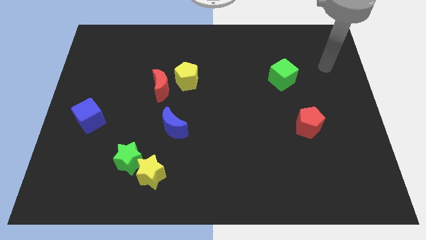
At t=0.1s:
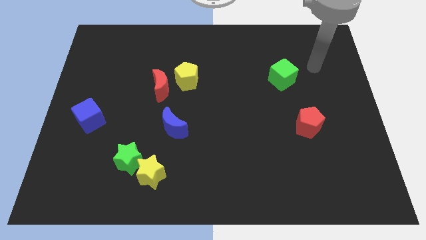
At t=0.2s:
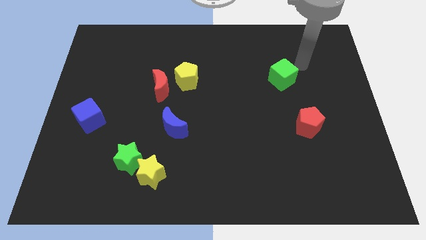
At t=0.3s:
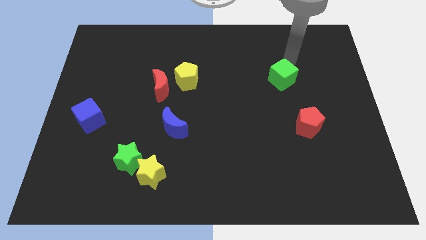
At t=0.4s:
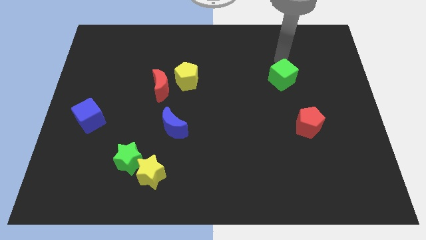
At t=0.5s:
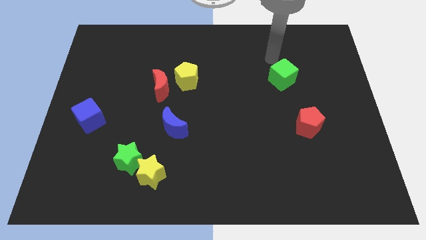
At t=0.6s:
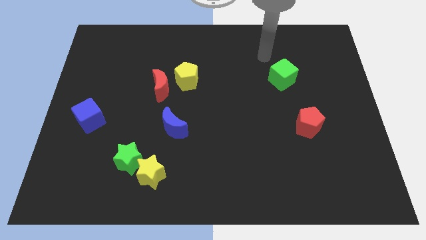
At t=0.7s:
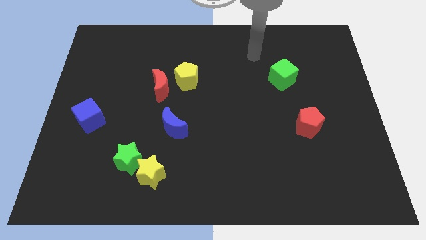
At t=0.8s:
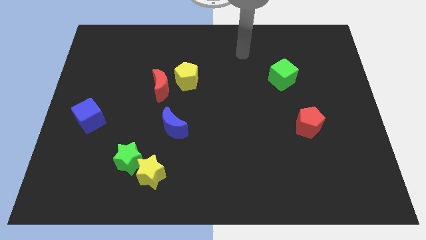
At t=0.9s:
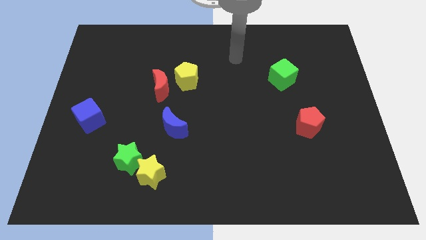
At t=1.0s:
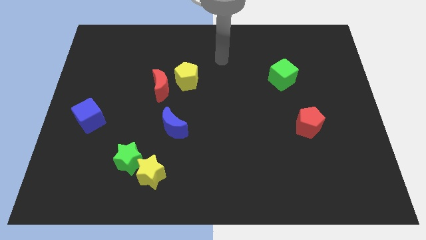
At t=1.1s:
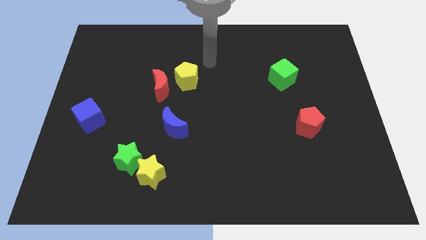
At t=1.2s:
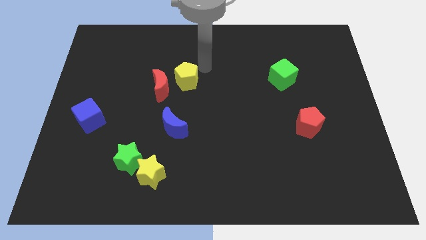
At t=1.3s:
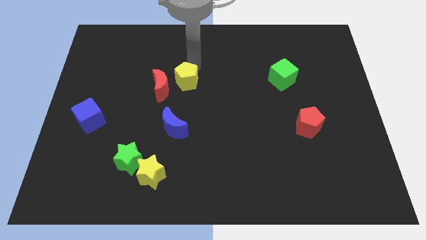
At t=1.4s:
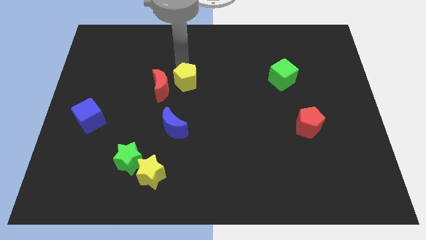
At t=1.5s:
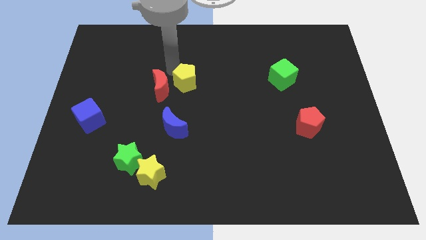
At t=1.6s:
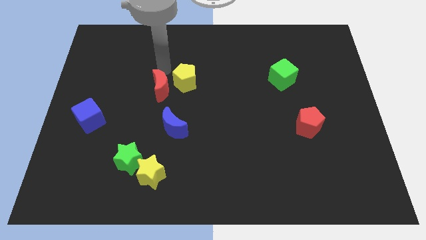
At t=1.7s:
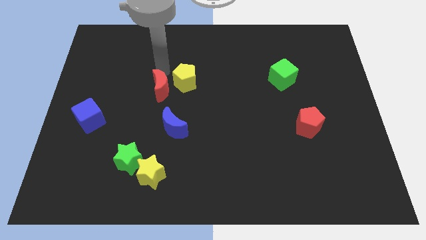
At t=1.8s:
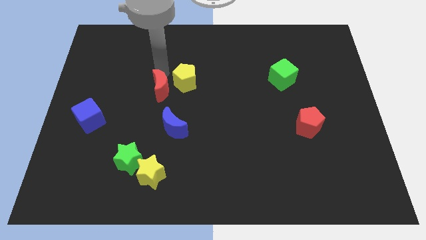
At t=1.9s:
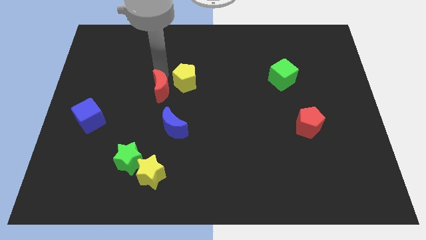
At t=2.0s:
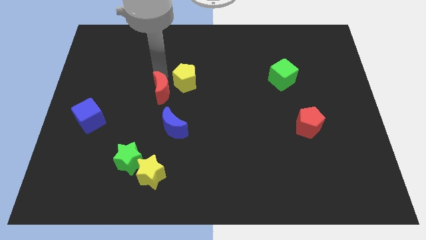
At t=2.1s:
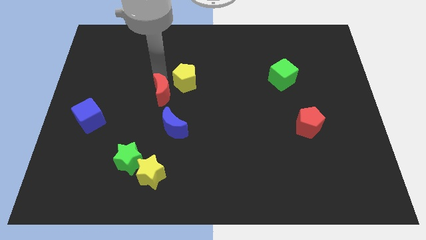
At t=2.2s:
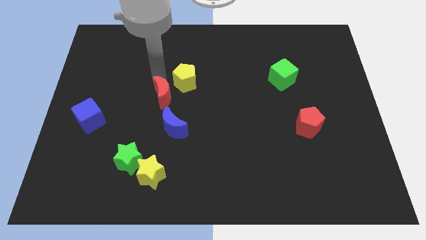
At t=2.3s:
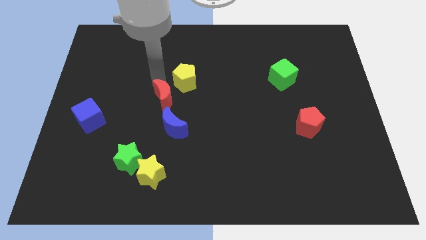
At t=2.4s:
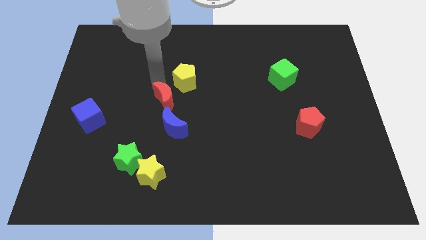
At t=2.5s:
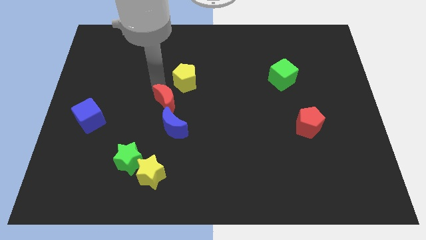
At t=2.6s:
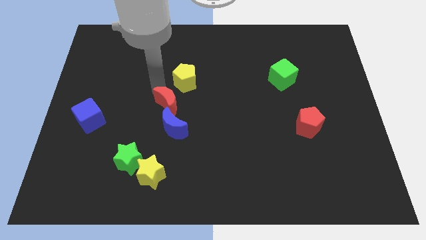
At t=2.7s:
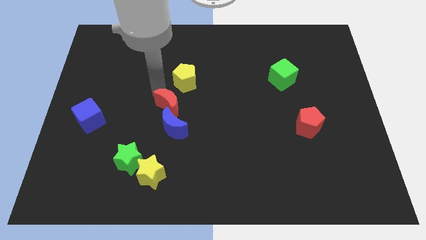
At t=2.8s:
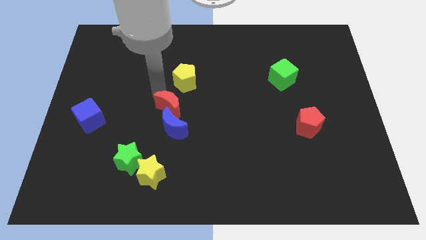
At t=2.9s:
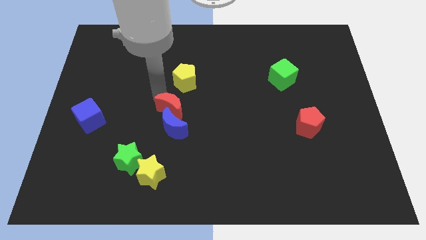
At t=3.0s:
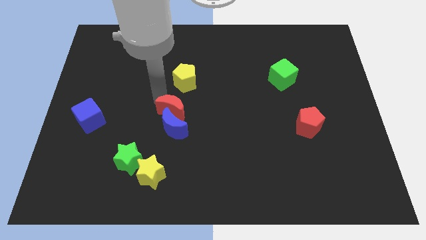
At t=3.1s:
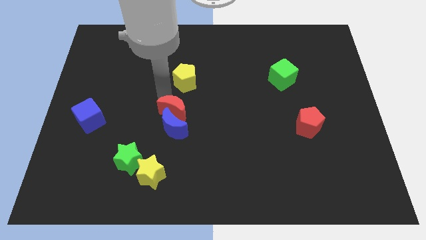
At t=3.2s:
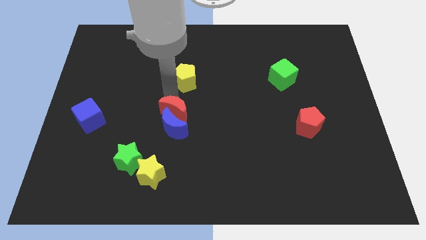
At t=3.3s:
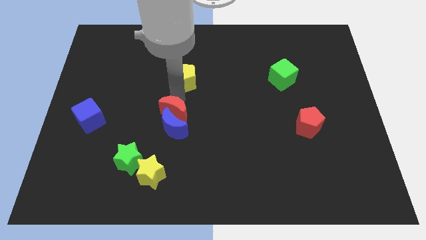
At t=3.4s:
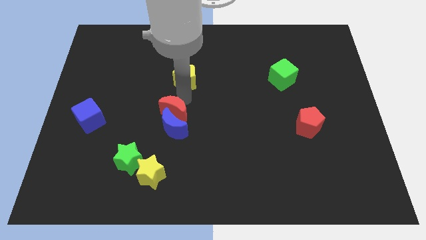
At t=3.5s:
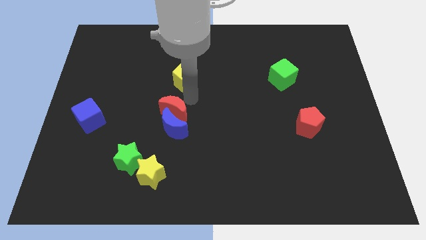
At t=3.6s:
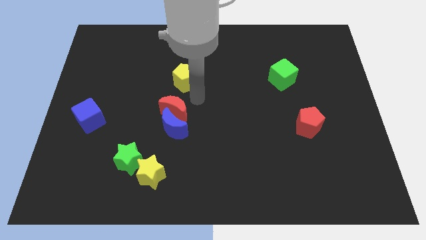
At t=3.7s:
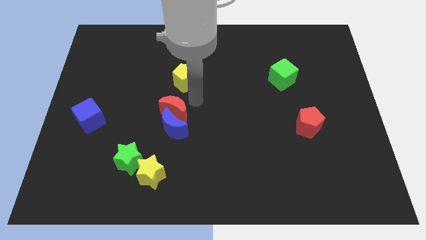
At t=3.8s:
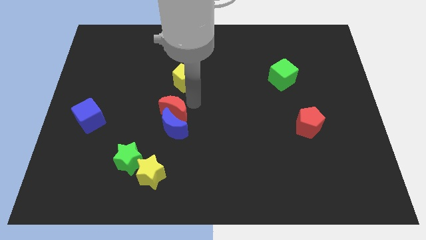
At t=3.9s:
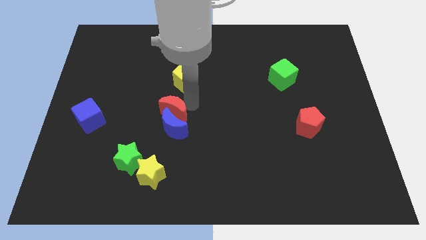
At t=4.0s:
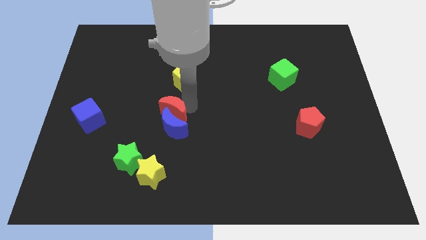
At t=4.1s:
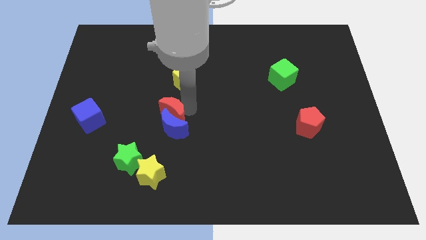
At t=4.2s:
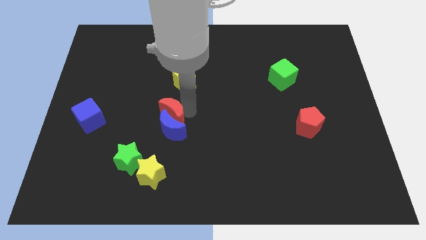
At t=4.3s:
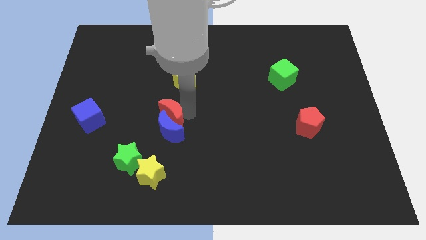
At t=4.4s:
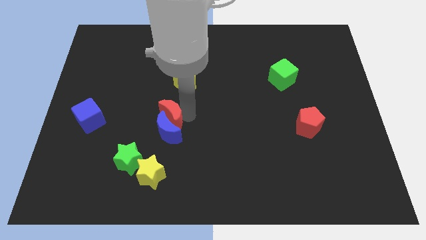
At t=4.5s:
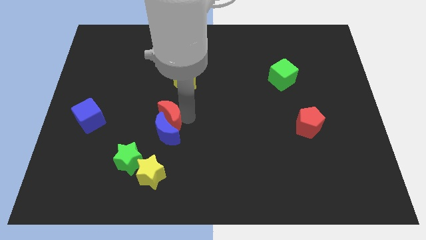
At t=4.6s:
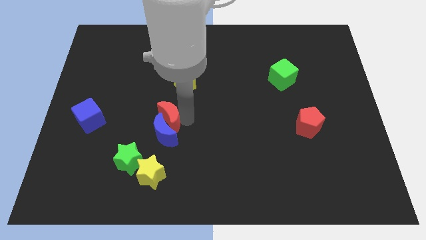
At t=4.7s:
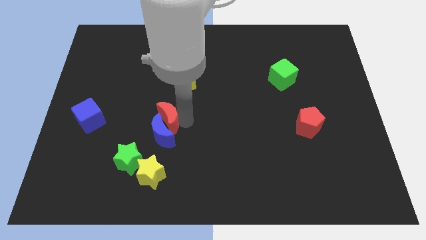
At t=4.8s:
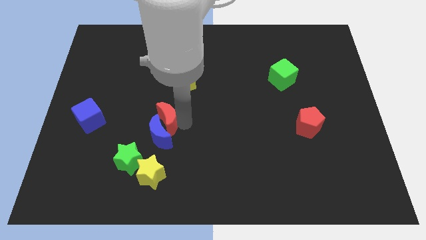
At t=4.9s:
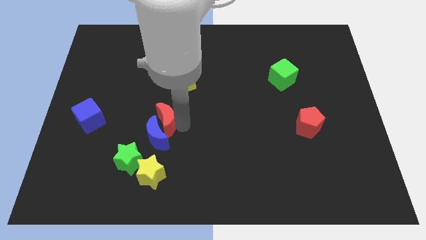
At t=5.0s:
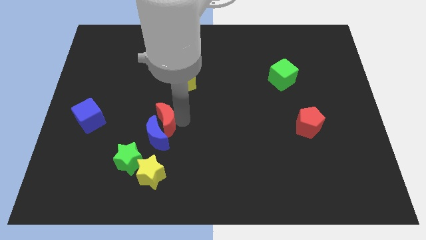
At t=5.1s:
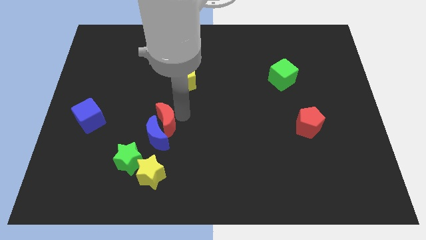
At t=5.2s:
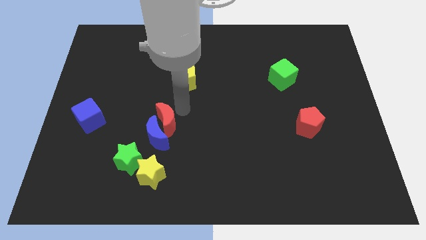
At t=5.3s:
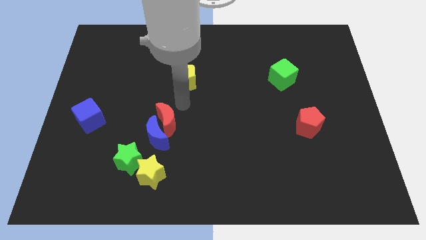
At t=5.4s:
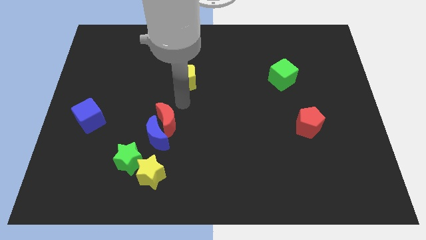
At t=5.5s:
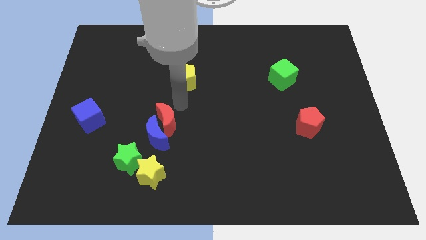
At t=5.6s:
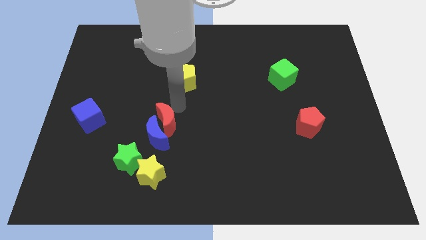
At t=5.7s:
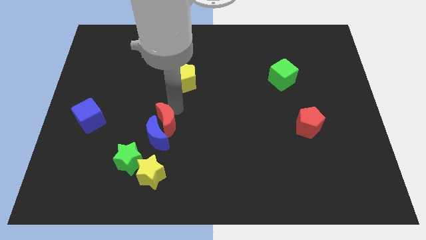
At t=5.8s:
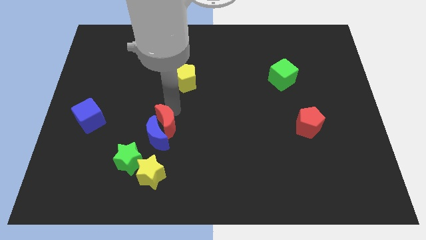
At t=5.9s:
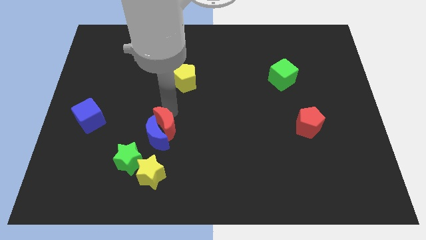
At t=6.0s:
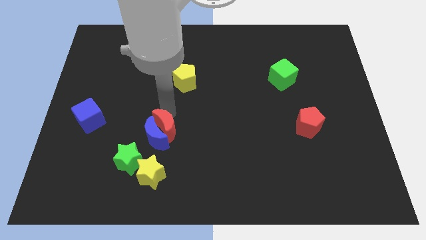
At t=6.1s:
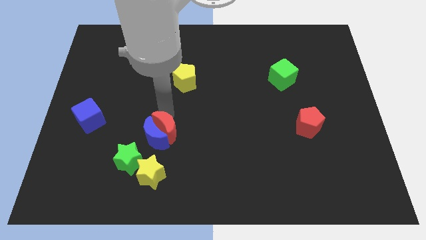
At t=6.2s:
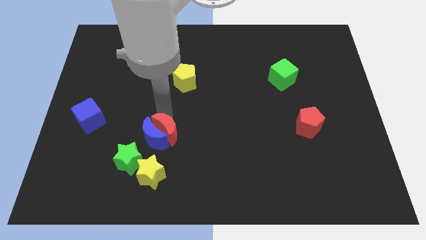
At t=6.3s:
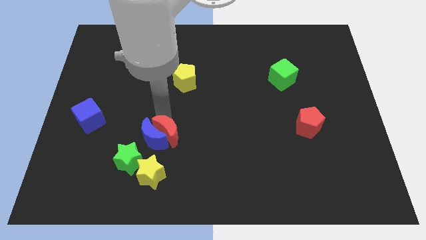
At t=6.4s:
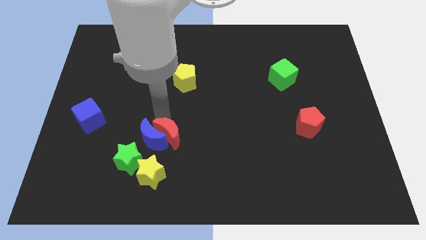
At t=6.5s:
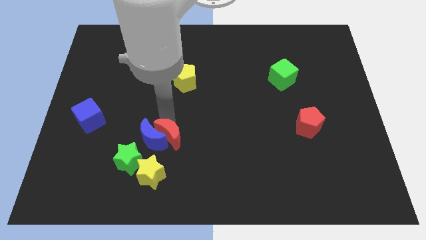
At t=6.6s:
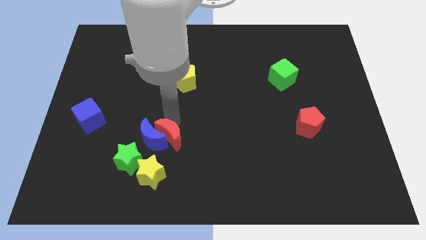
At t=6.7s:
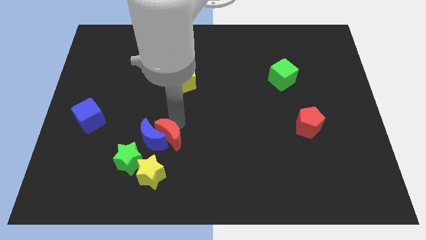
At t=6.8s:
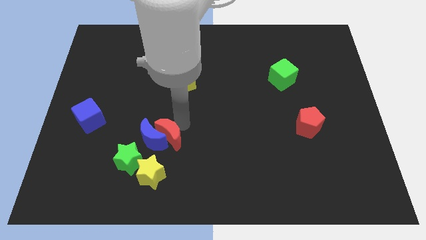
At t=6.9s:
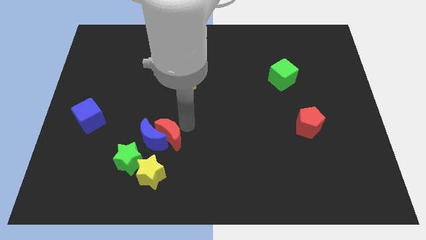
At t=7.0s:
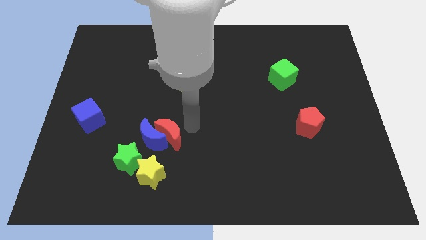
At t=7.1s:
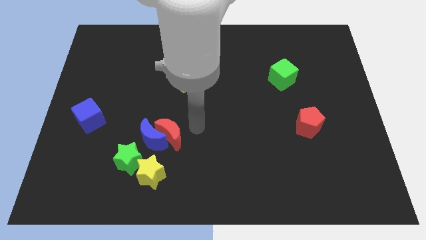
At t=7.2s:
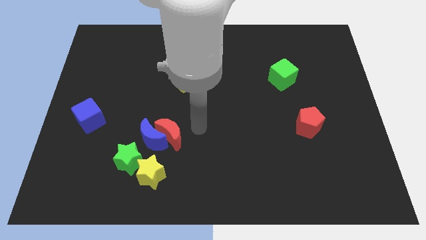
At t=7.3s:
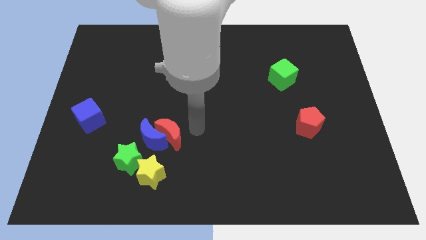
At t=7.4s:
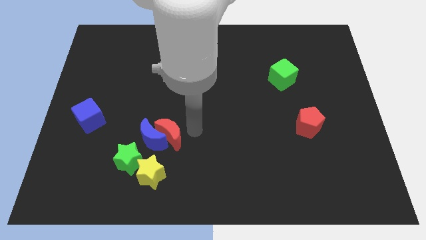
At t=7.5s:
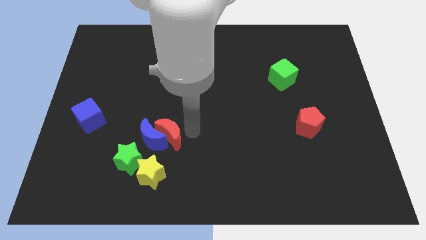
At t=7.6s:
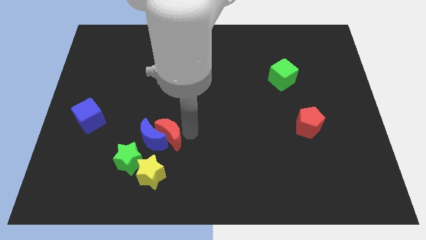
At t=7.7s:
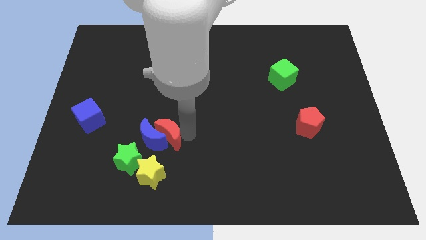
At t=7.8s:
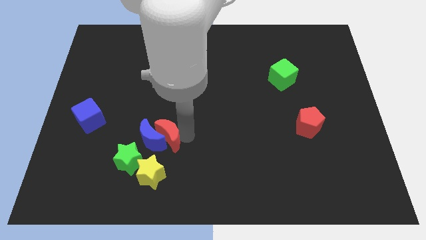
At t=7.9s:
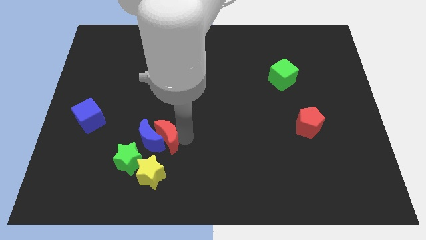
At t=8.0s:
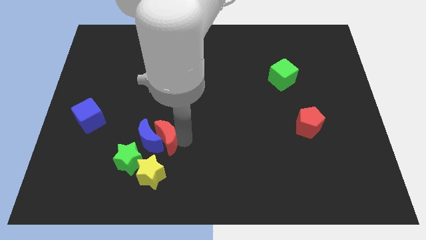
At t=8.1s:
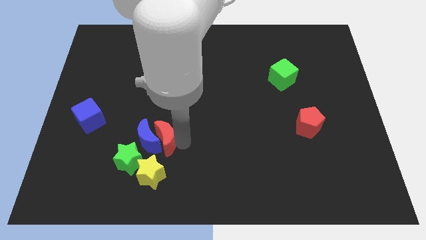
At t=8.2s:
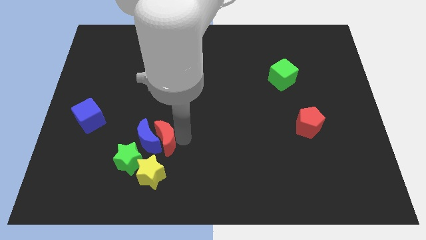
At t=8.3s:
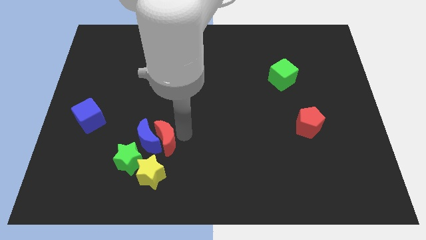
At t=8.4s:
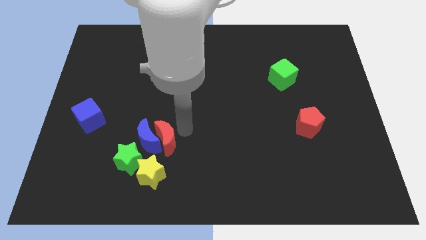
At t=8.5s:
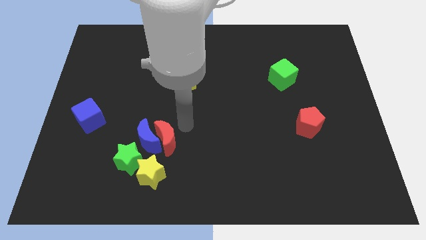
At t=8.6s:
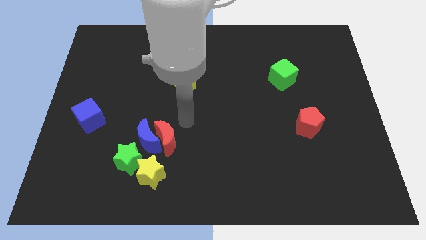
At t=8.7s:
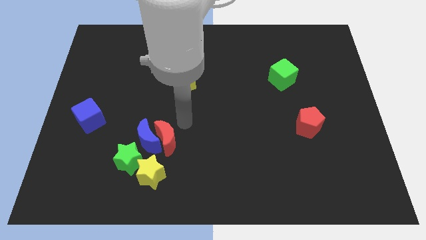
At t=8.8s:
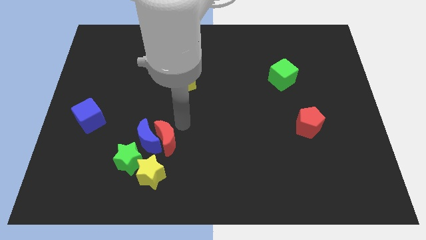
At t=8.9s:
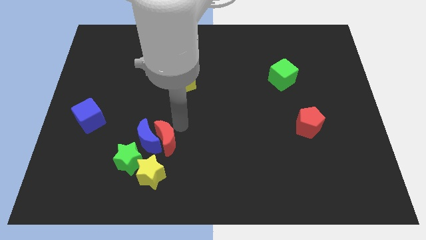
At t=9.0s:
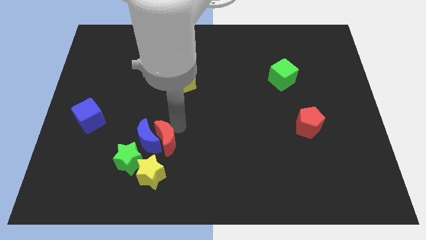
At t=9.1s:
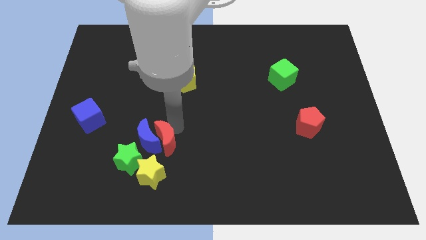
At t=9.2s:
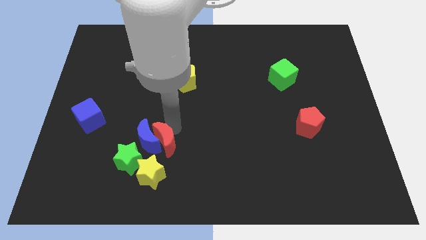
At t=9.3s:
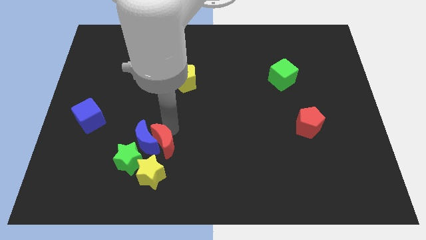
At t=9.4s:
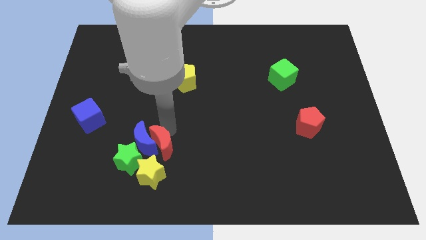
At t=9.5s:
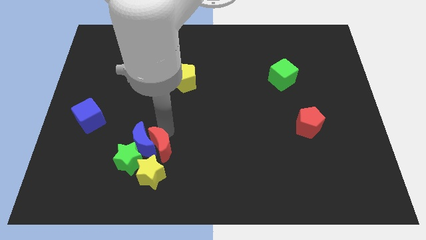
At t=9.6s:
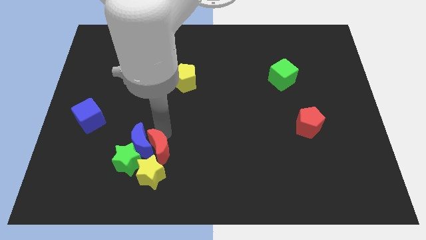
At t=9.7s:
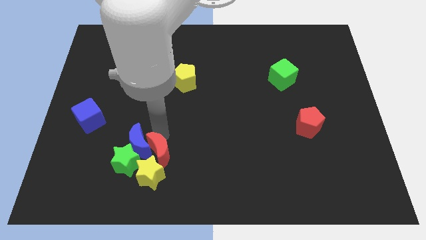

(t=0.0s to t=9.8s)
push the red moon next to the yellow star
